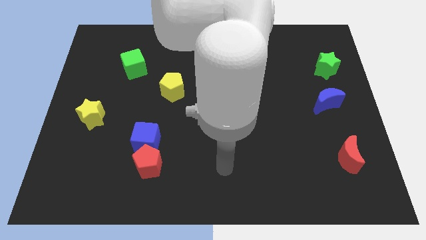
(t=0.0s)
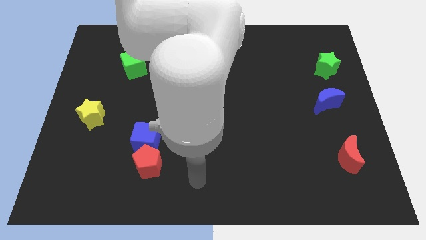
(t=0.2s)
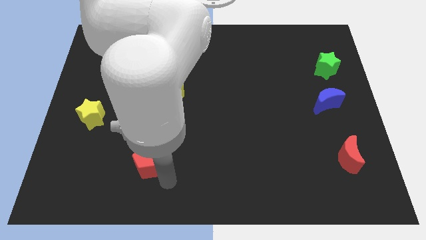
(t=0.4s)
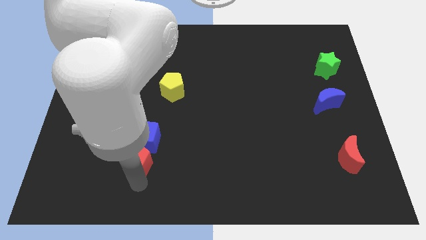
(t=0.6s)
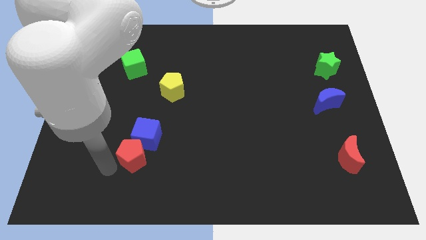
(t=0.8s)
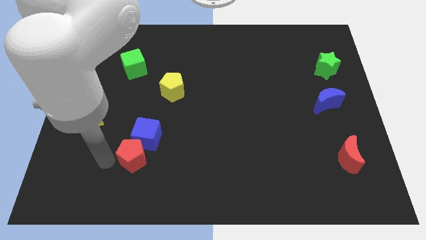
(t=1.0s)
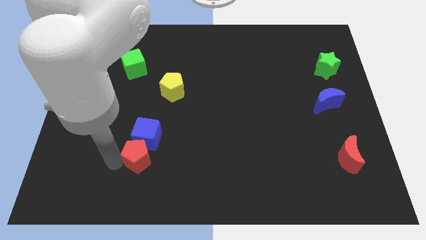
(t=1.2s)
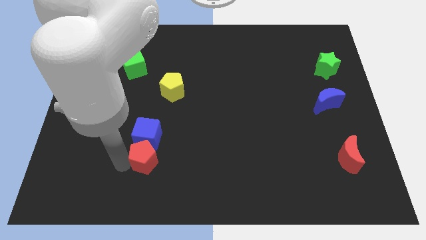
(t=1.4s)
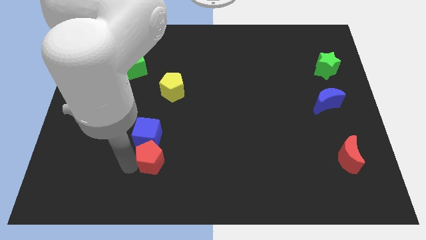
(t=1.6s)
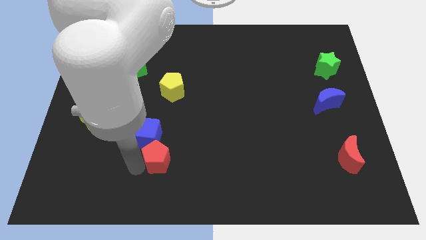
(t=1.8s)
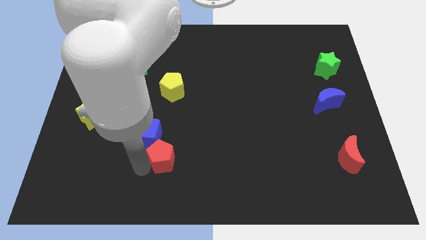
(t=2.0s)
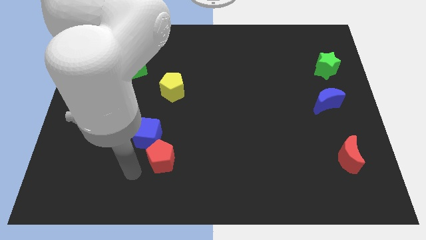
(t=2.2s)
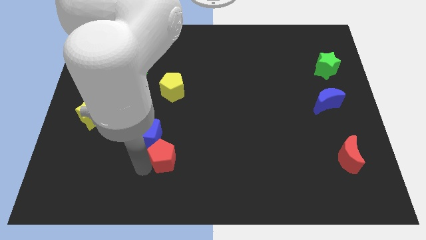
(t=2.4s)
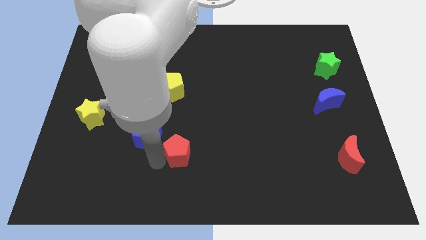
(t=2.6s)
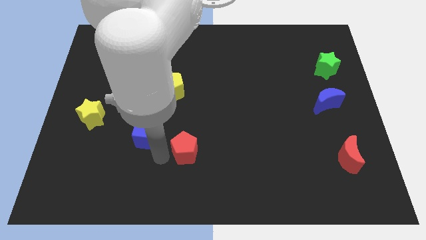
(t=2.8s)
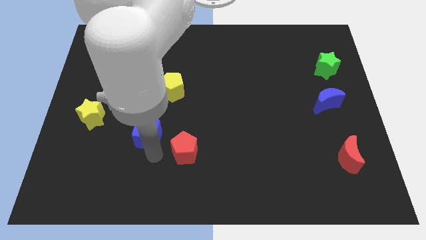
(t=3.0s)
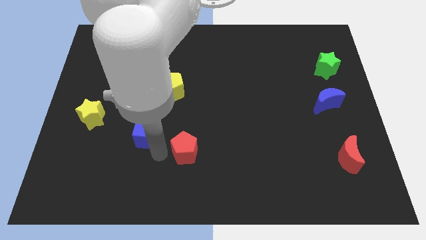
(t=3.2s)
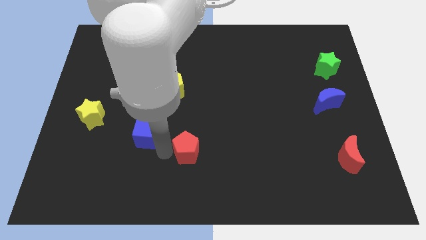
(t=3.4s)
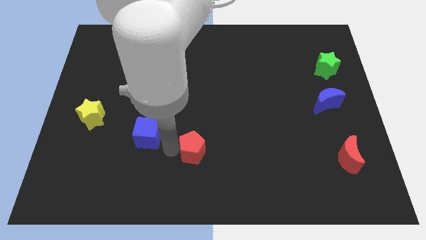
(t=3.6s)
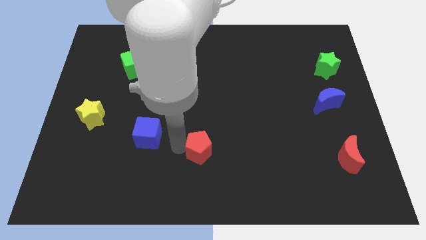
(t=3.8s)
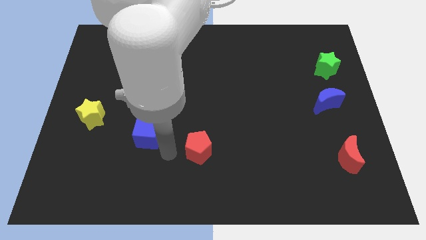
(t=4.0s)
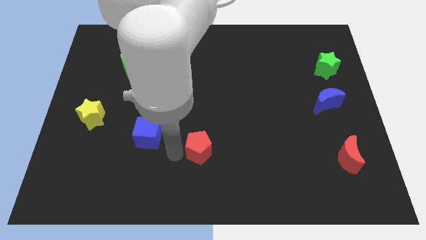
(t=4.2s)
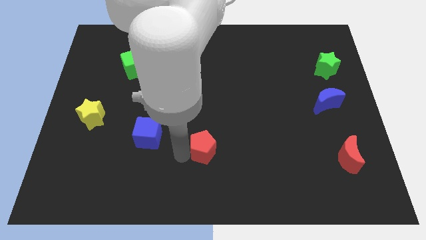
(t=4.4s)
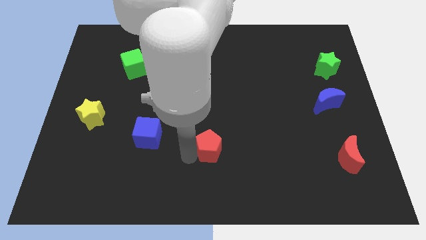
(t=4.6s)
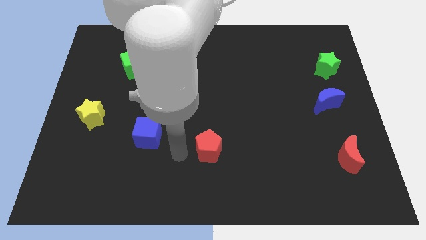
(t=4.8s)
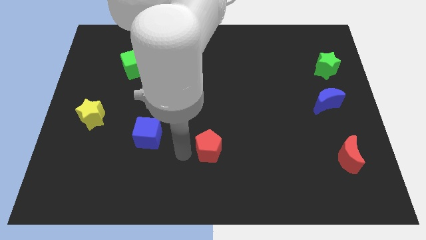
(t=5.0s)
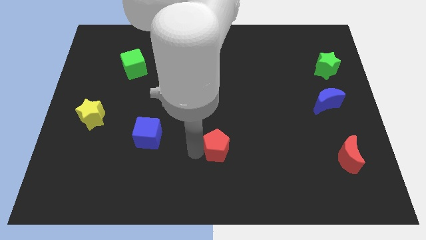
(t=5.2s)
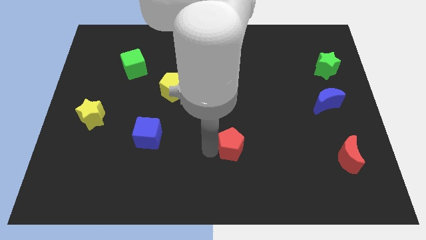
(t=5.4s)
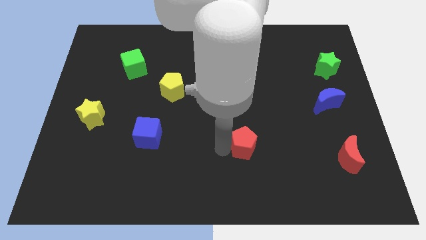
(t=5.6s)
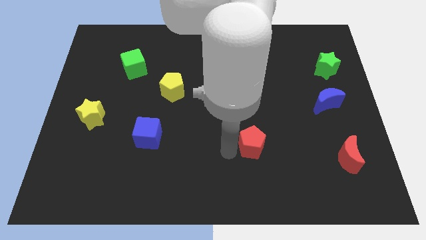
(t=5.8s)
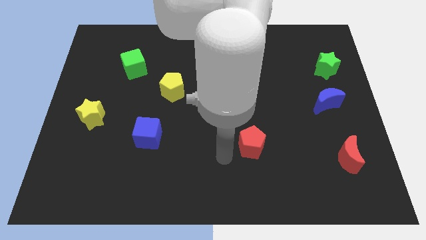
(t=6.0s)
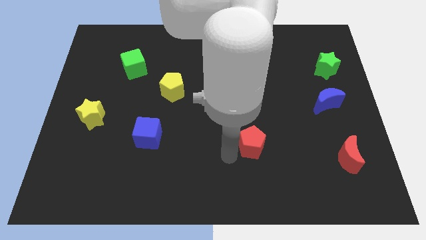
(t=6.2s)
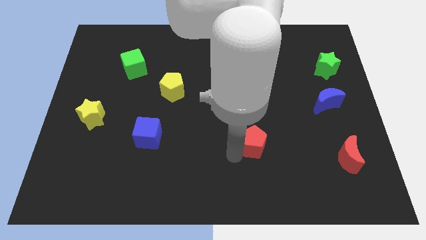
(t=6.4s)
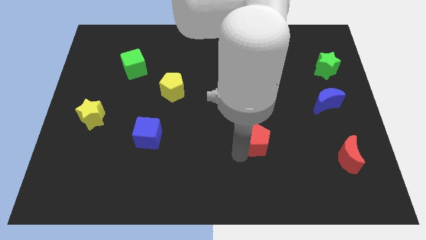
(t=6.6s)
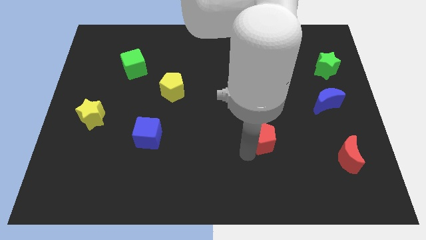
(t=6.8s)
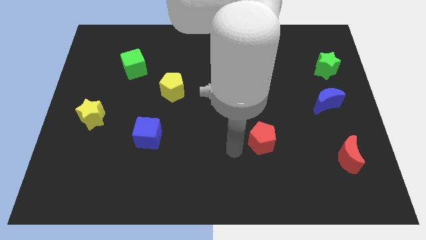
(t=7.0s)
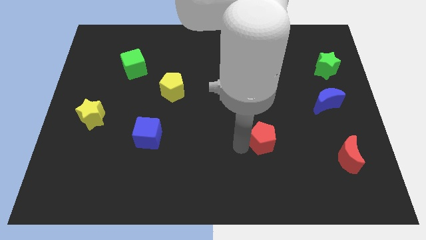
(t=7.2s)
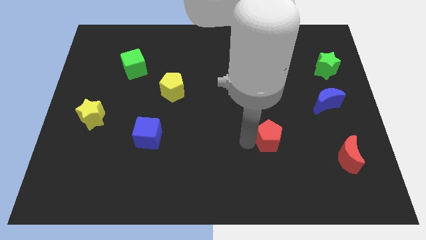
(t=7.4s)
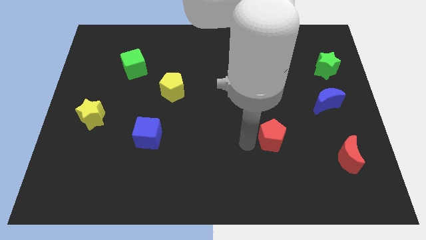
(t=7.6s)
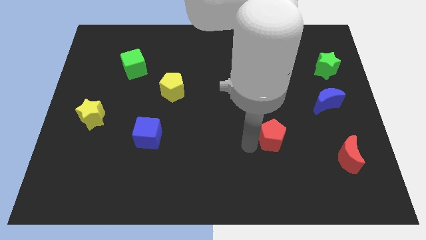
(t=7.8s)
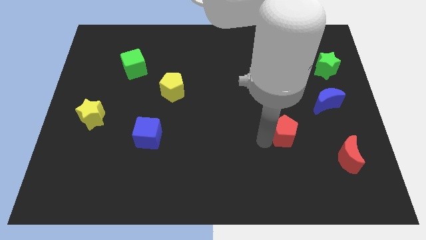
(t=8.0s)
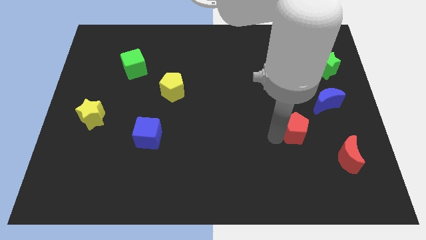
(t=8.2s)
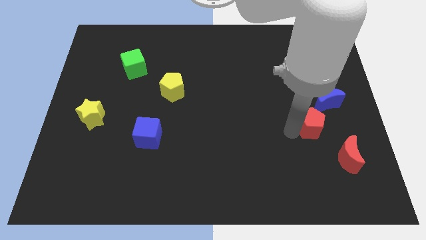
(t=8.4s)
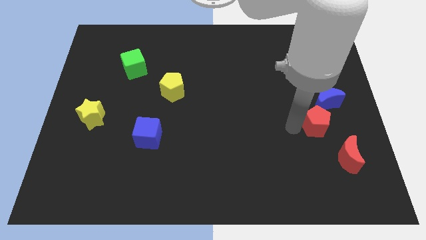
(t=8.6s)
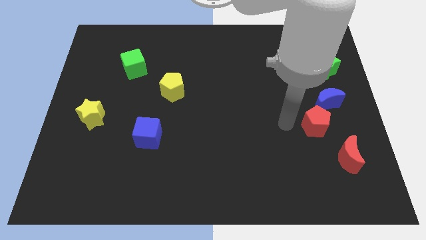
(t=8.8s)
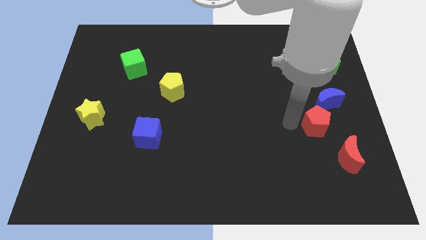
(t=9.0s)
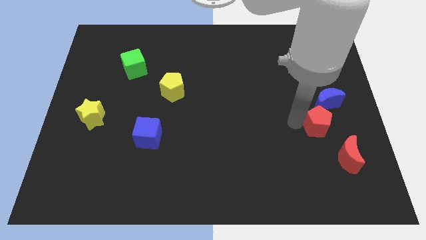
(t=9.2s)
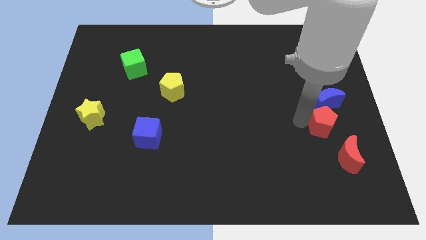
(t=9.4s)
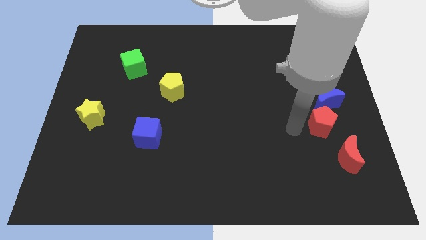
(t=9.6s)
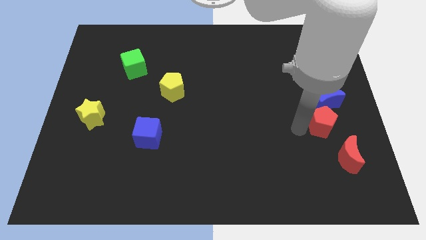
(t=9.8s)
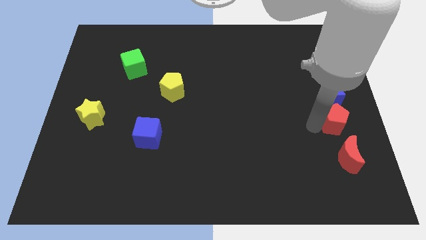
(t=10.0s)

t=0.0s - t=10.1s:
move the red pentagon to the right side of the board

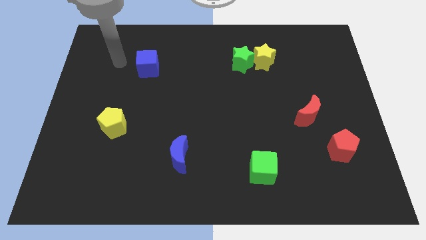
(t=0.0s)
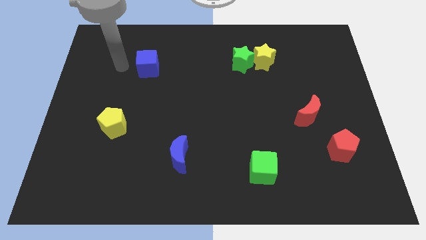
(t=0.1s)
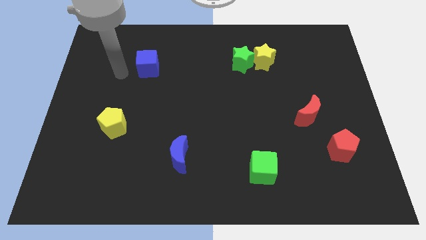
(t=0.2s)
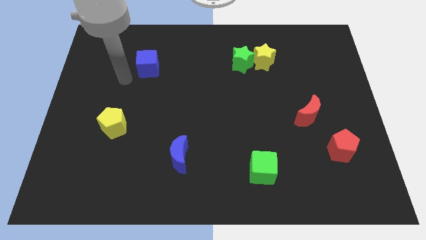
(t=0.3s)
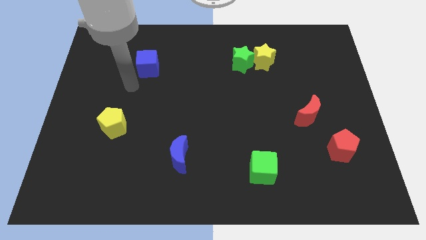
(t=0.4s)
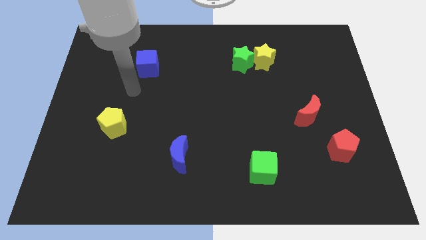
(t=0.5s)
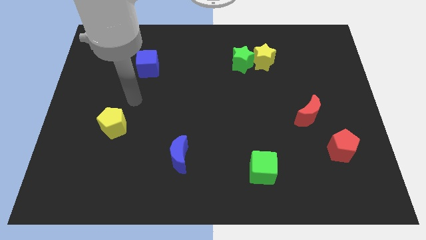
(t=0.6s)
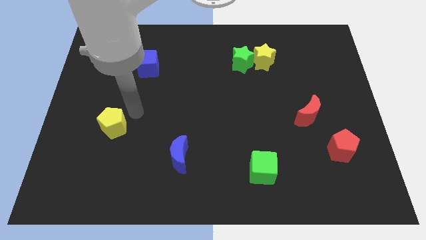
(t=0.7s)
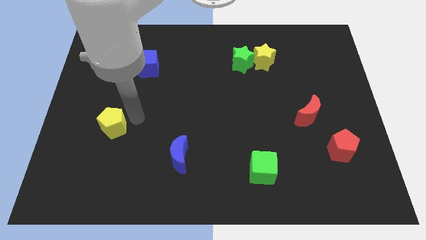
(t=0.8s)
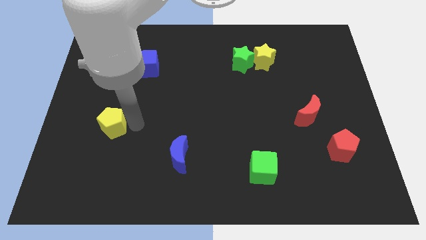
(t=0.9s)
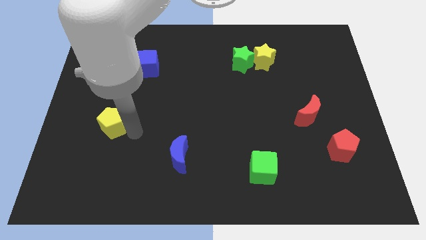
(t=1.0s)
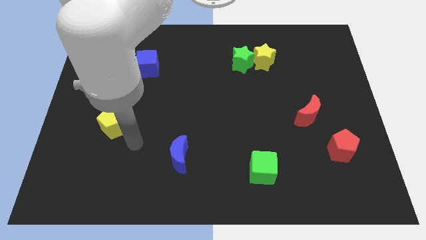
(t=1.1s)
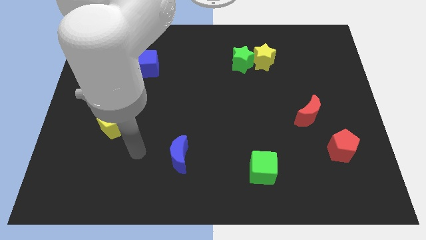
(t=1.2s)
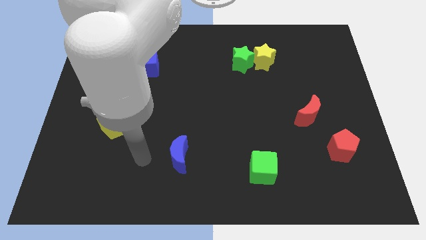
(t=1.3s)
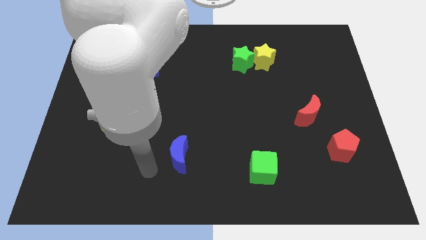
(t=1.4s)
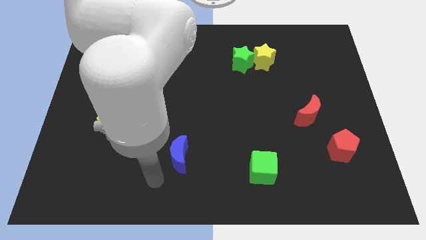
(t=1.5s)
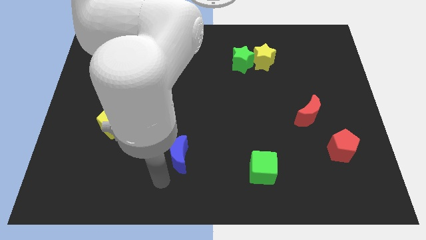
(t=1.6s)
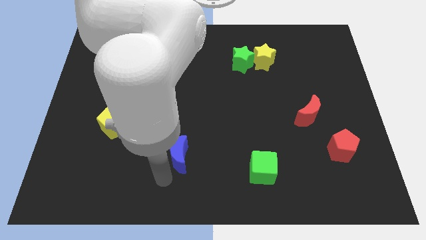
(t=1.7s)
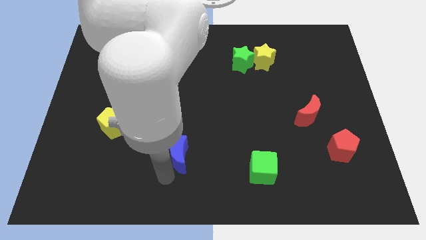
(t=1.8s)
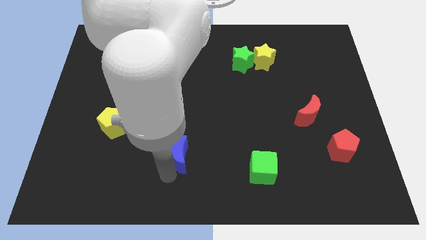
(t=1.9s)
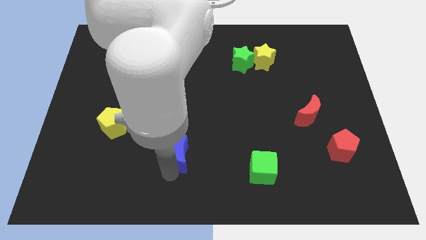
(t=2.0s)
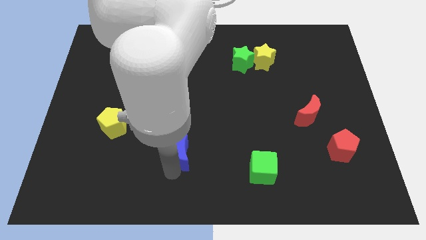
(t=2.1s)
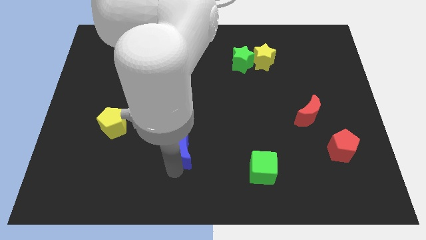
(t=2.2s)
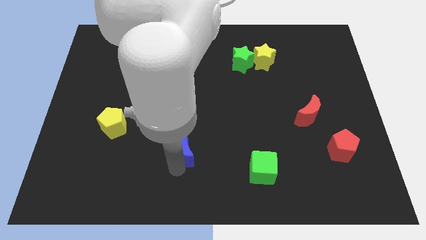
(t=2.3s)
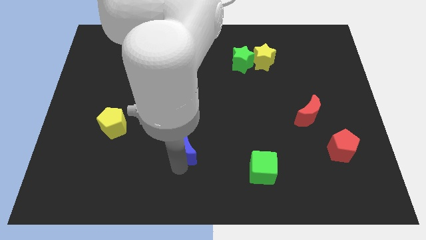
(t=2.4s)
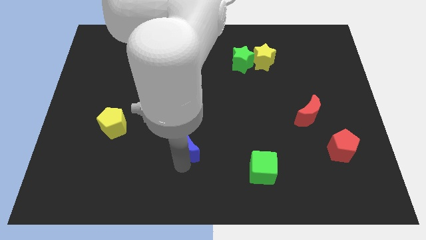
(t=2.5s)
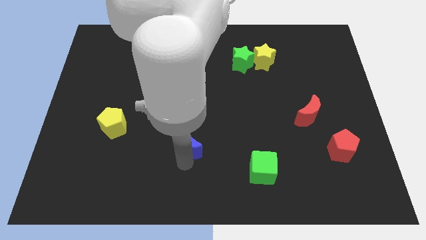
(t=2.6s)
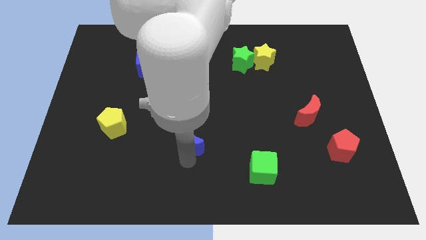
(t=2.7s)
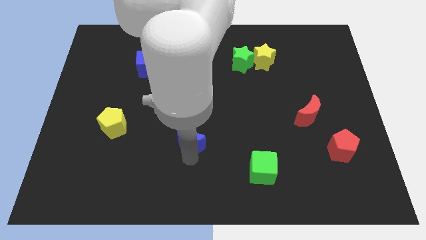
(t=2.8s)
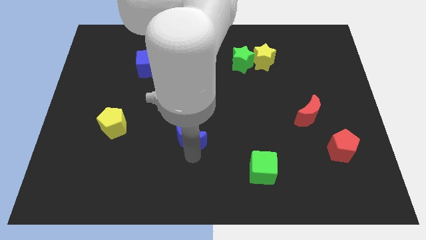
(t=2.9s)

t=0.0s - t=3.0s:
slide the blue moon to the center of the board
